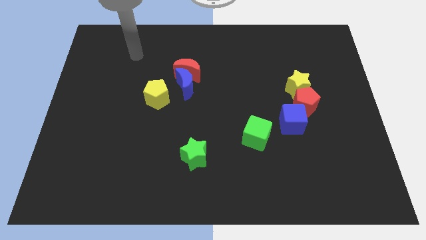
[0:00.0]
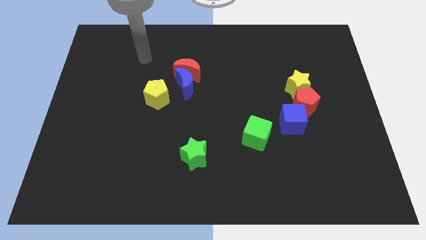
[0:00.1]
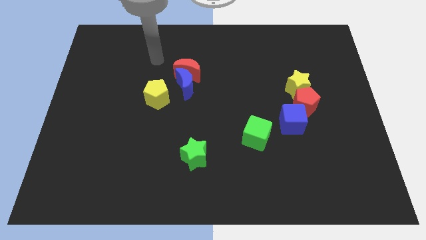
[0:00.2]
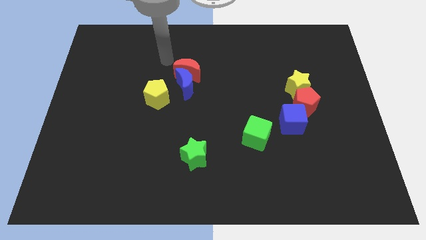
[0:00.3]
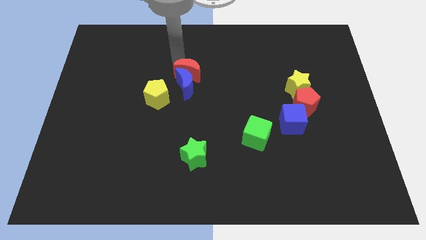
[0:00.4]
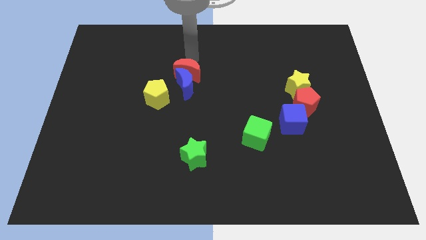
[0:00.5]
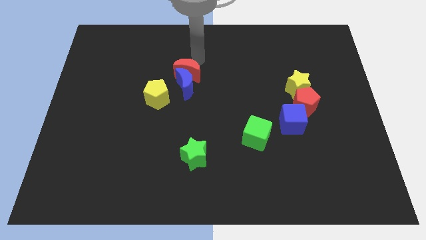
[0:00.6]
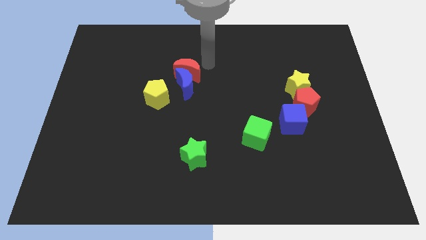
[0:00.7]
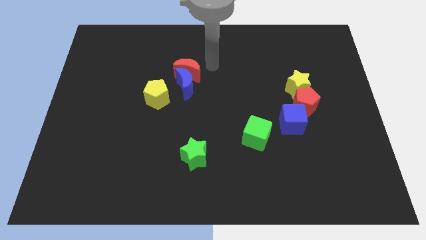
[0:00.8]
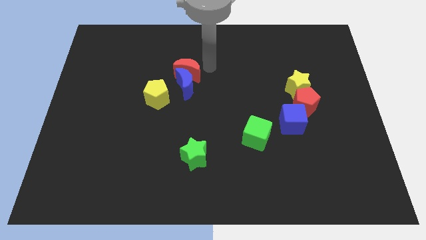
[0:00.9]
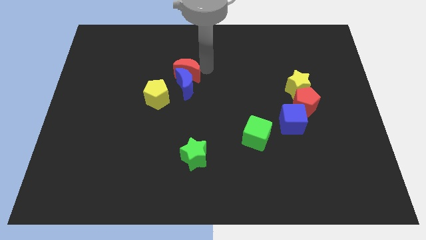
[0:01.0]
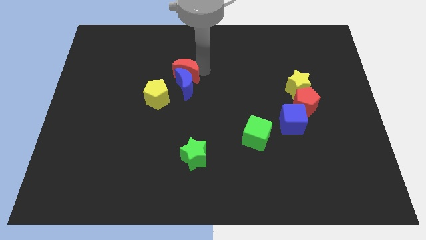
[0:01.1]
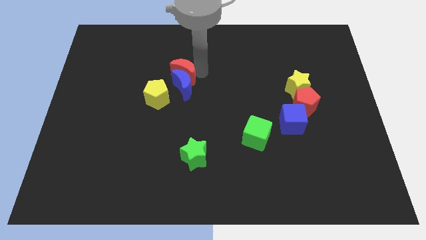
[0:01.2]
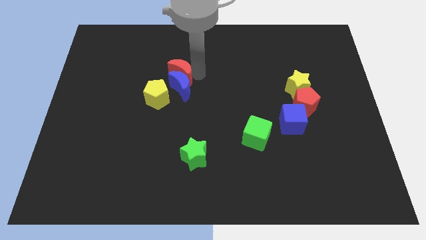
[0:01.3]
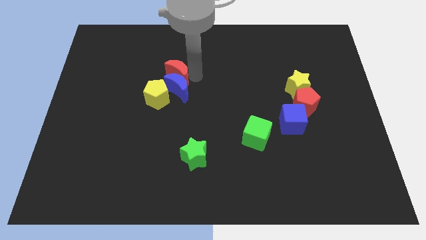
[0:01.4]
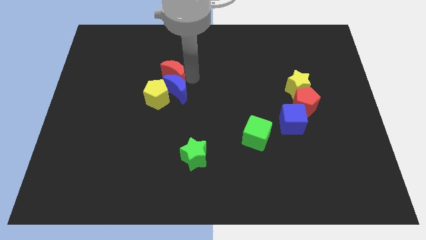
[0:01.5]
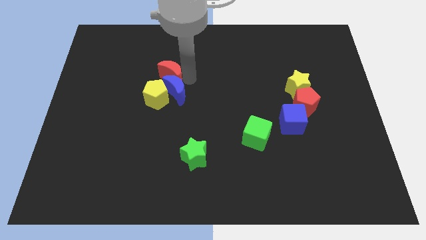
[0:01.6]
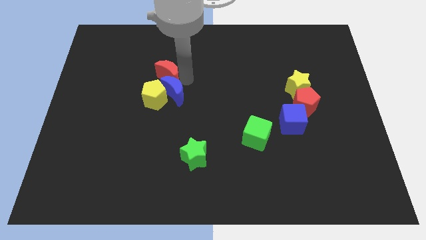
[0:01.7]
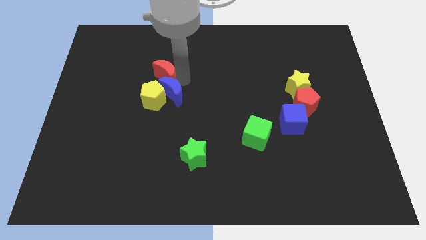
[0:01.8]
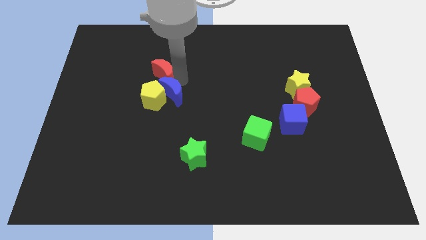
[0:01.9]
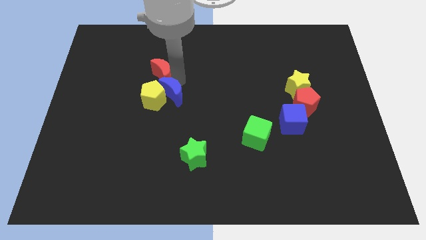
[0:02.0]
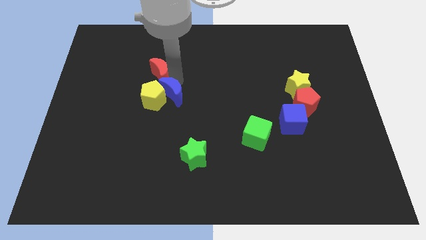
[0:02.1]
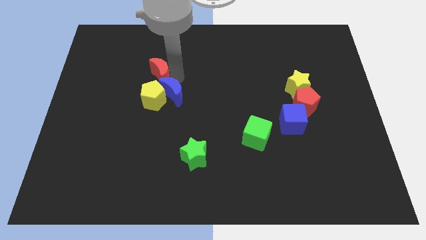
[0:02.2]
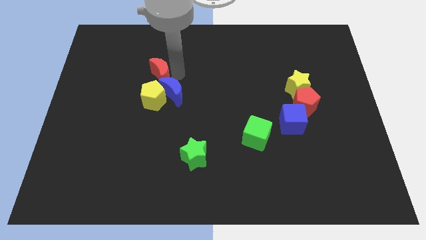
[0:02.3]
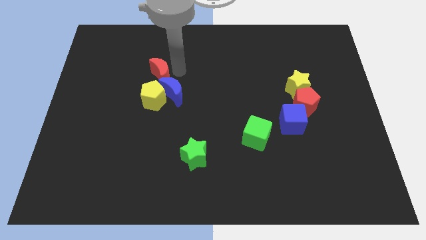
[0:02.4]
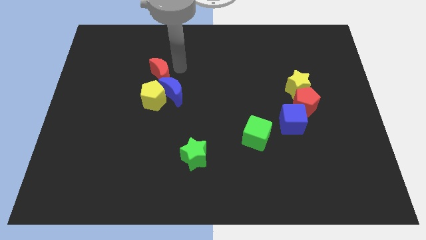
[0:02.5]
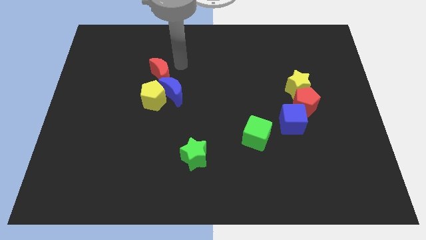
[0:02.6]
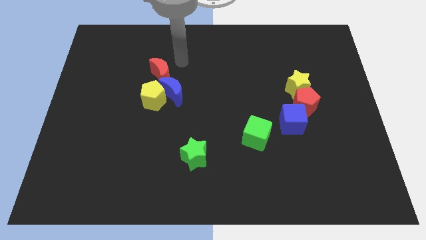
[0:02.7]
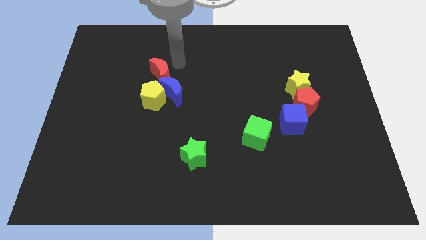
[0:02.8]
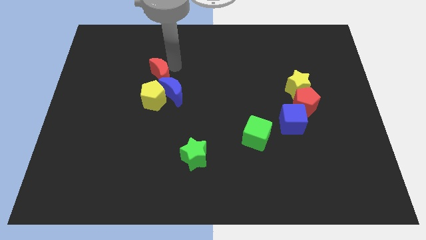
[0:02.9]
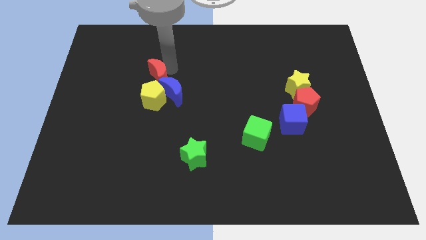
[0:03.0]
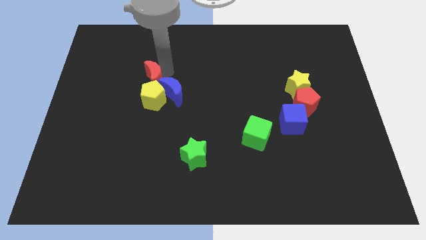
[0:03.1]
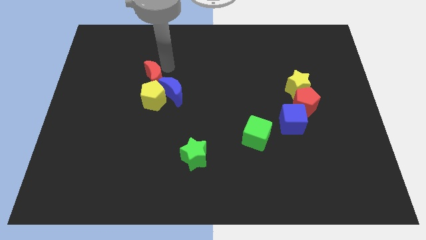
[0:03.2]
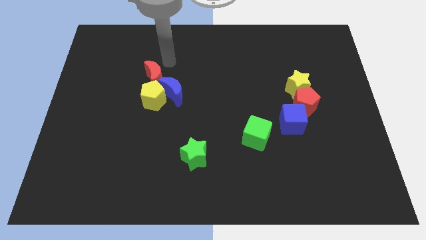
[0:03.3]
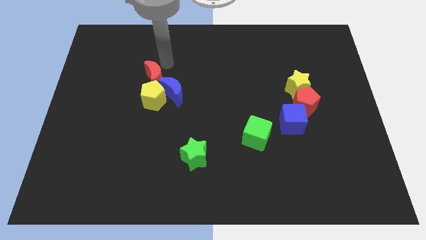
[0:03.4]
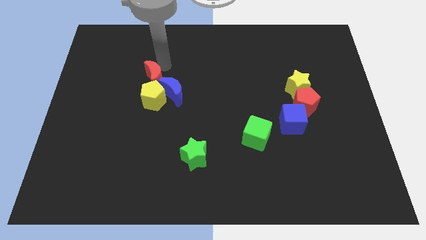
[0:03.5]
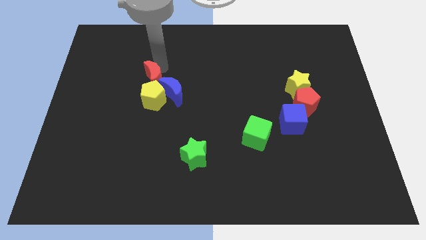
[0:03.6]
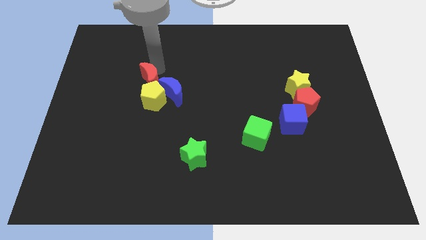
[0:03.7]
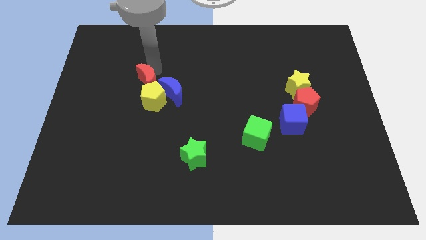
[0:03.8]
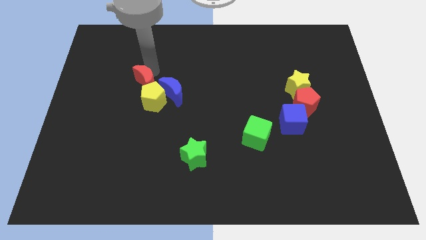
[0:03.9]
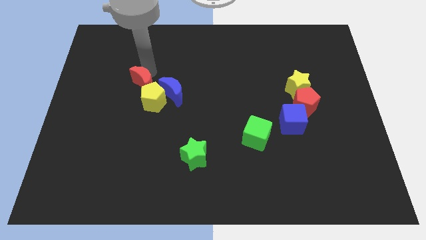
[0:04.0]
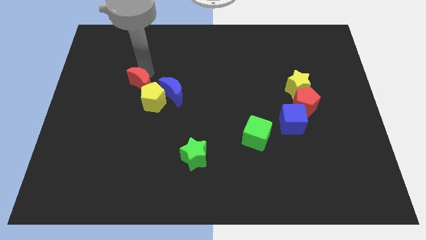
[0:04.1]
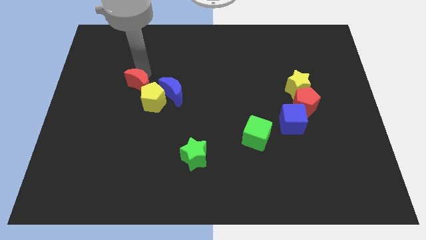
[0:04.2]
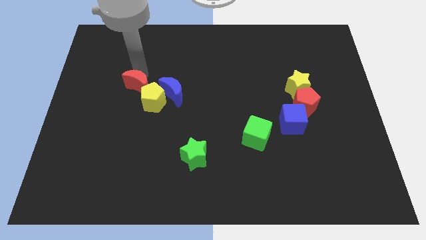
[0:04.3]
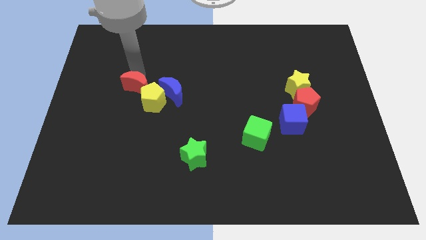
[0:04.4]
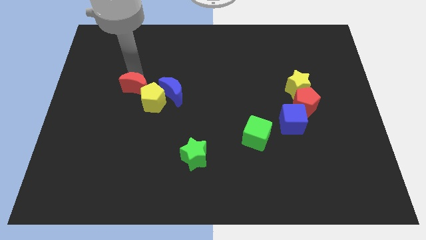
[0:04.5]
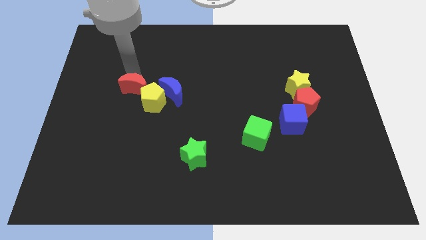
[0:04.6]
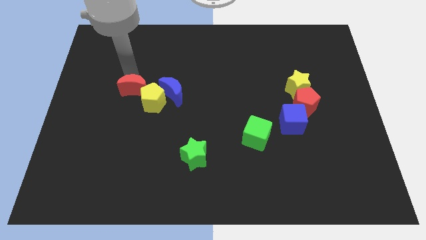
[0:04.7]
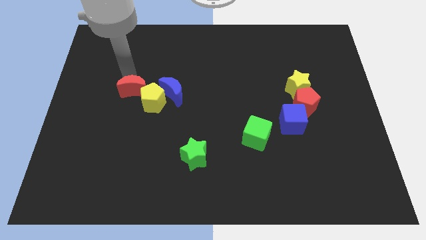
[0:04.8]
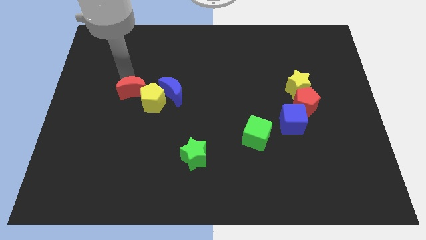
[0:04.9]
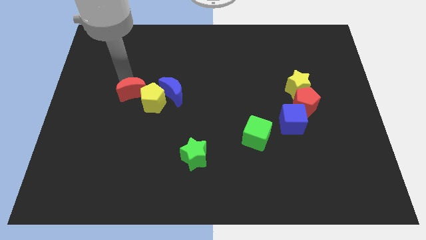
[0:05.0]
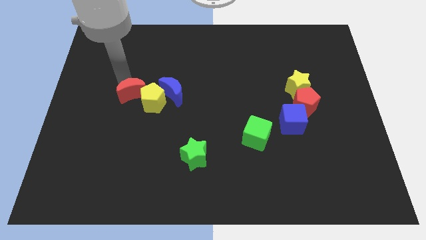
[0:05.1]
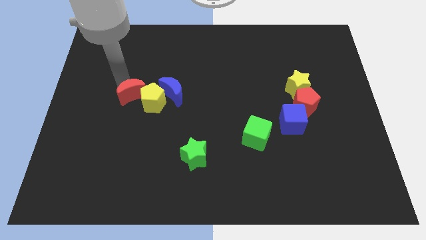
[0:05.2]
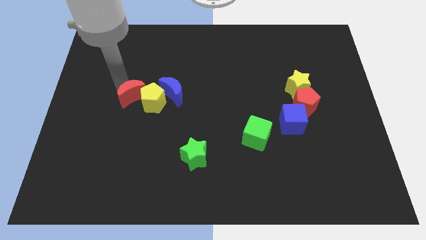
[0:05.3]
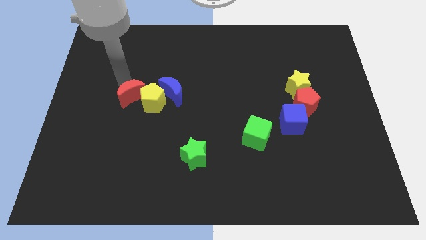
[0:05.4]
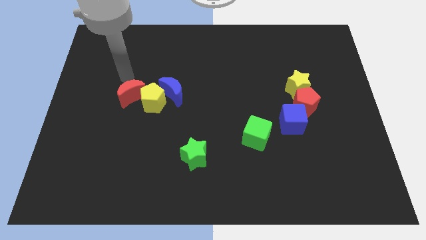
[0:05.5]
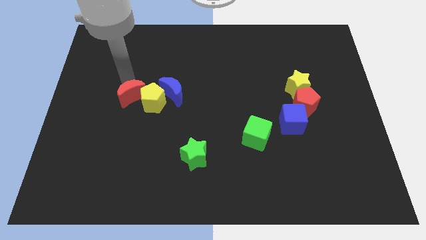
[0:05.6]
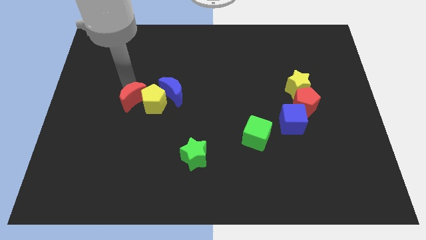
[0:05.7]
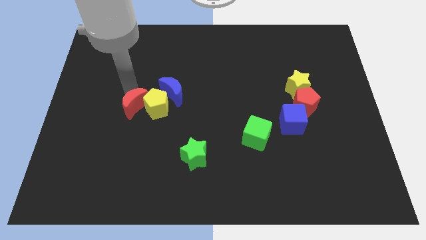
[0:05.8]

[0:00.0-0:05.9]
move the red moon to the bottom left side of the blue moon

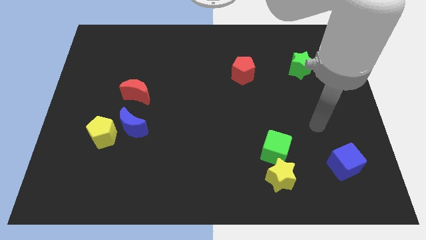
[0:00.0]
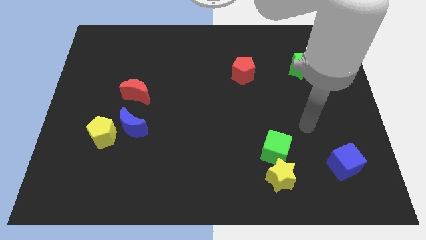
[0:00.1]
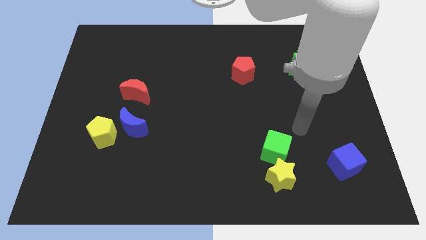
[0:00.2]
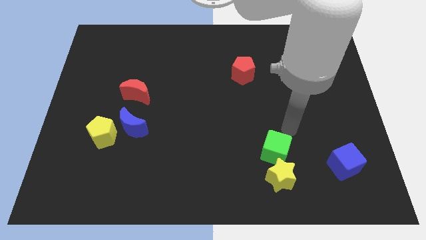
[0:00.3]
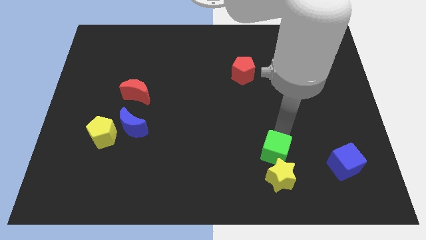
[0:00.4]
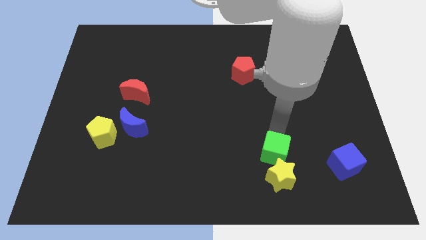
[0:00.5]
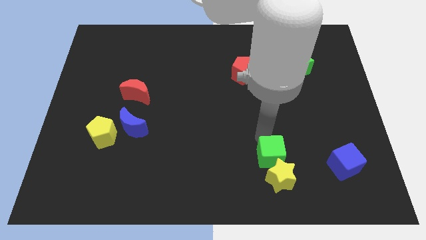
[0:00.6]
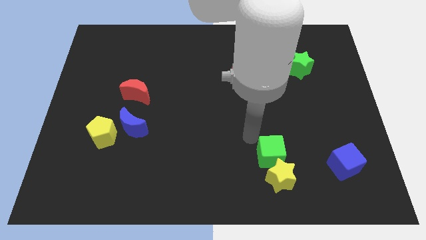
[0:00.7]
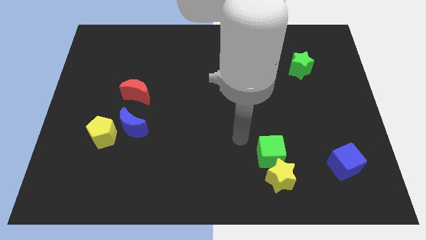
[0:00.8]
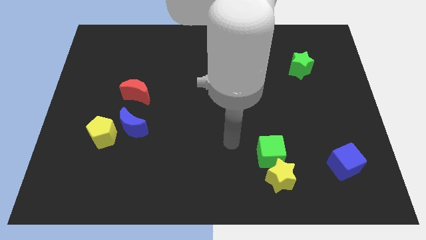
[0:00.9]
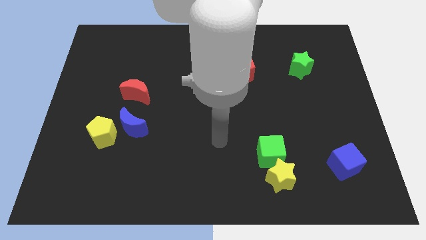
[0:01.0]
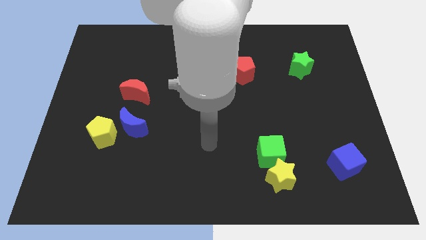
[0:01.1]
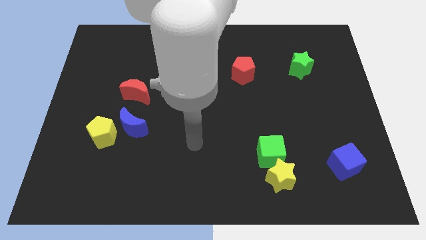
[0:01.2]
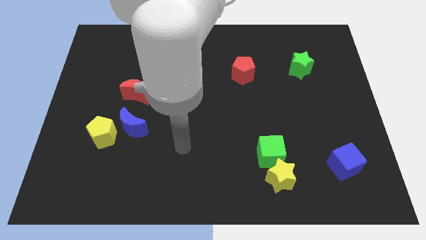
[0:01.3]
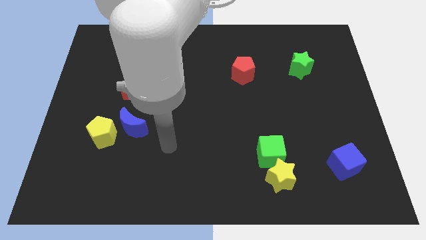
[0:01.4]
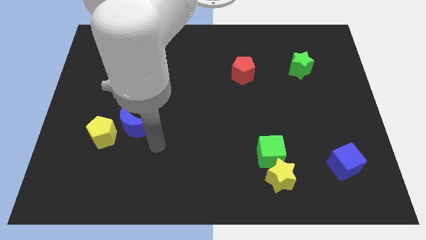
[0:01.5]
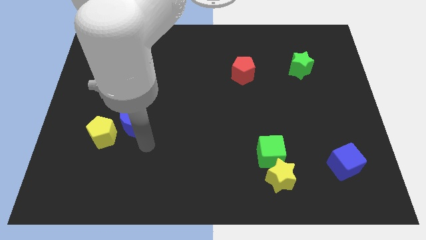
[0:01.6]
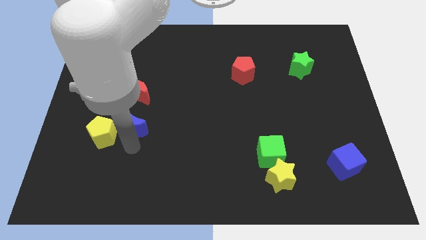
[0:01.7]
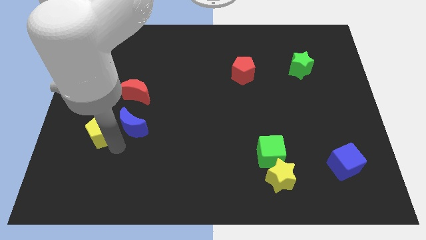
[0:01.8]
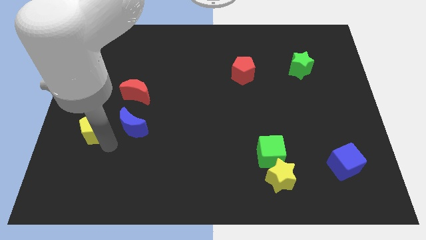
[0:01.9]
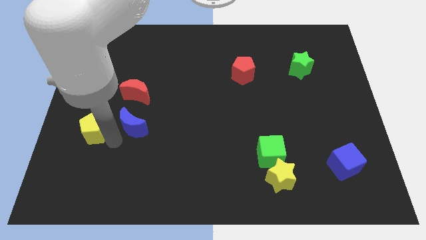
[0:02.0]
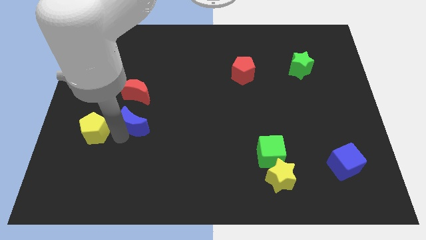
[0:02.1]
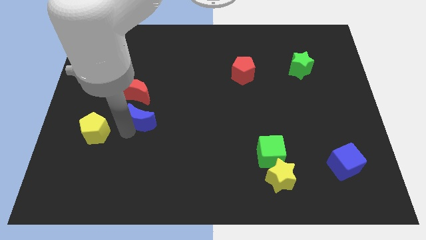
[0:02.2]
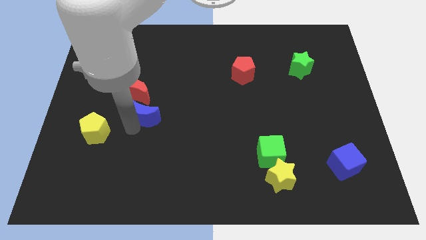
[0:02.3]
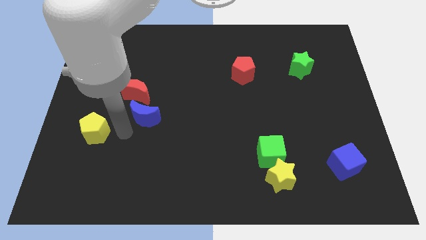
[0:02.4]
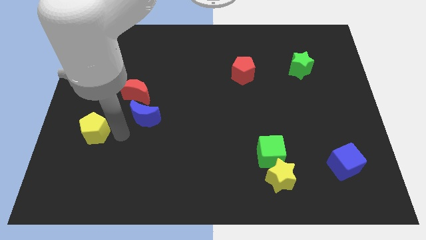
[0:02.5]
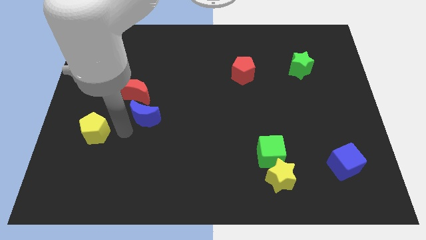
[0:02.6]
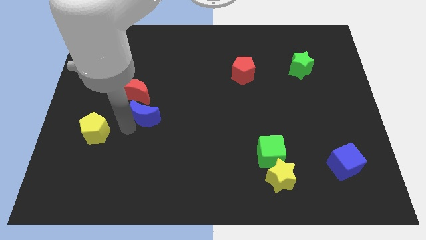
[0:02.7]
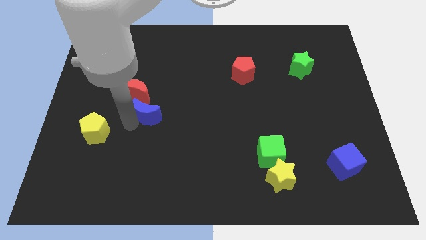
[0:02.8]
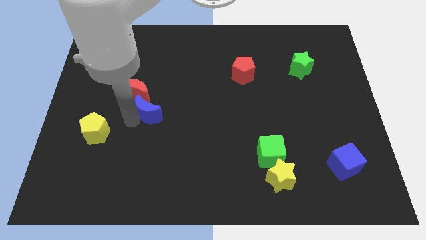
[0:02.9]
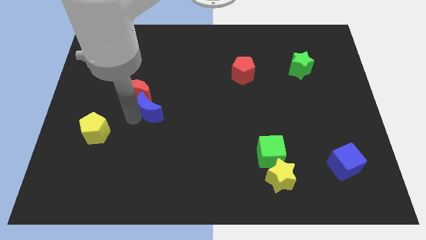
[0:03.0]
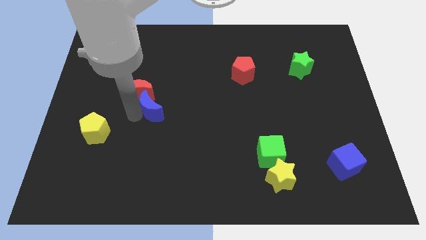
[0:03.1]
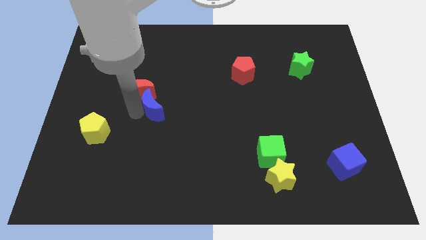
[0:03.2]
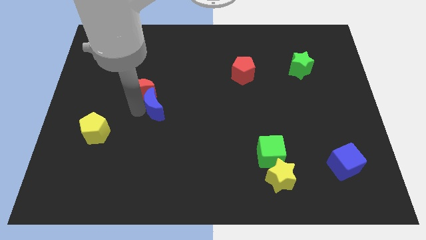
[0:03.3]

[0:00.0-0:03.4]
push the blue moon right of the red moon
